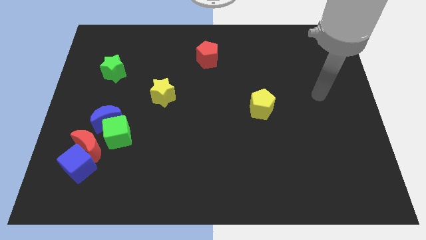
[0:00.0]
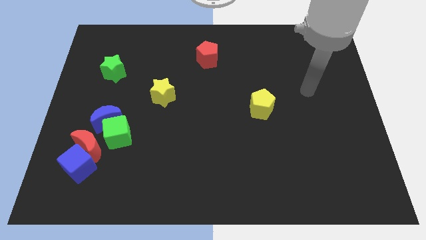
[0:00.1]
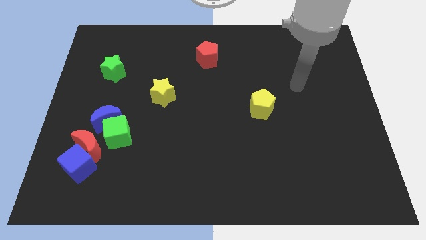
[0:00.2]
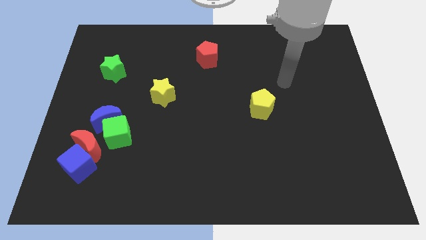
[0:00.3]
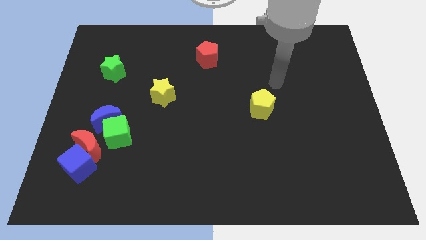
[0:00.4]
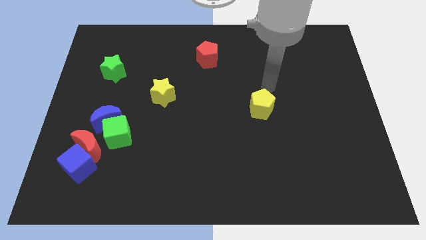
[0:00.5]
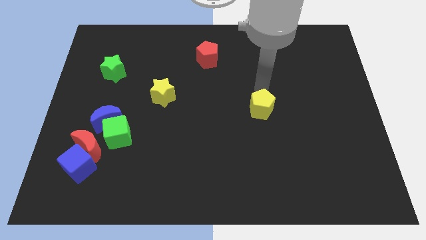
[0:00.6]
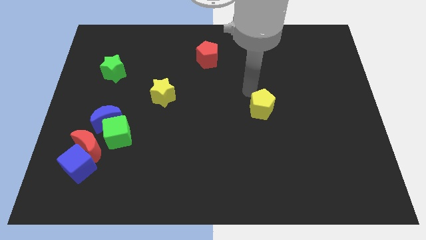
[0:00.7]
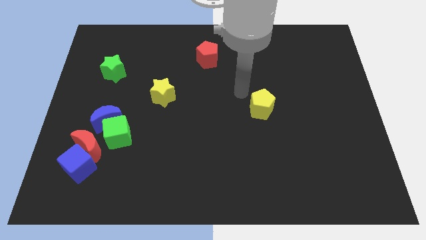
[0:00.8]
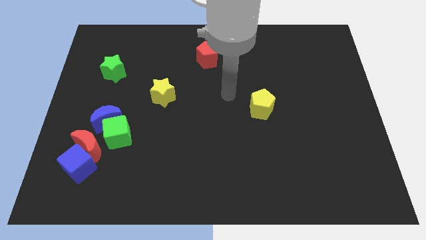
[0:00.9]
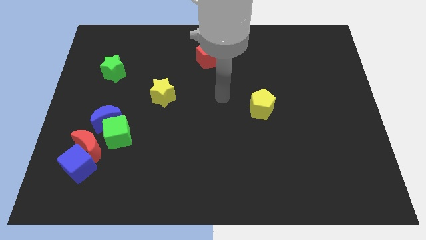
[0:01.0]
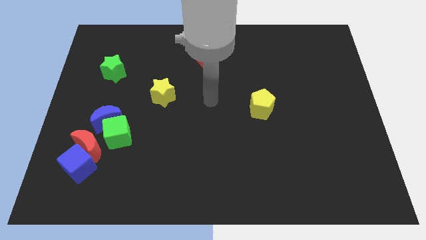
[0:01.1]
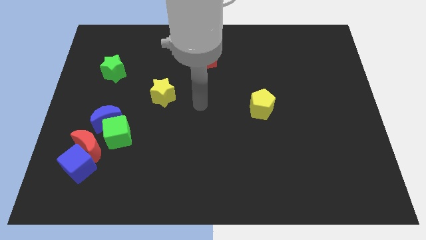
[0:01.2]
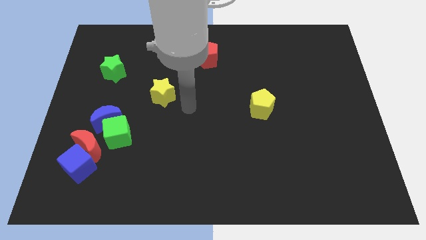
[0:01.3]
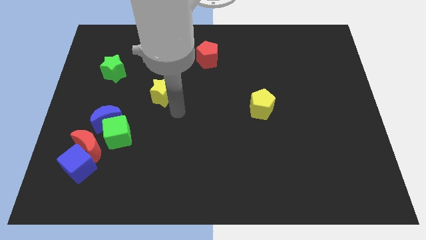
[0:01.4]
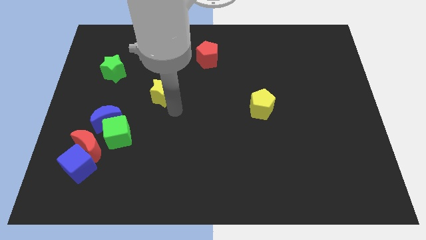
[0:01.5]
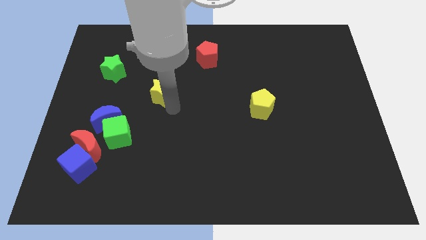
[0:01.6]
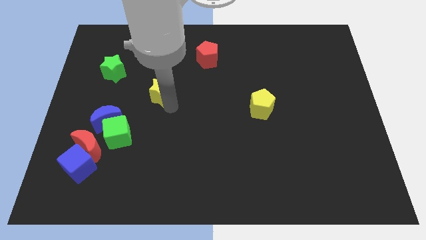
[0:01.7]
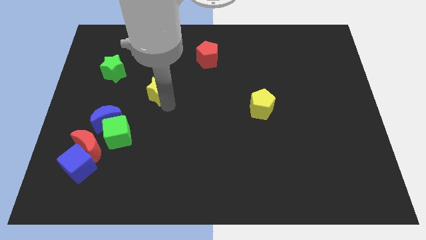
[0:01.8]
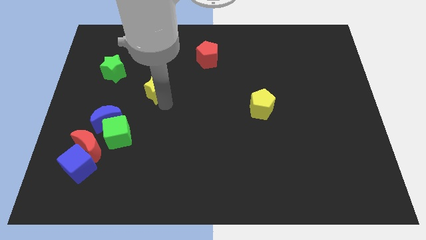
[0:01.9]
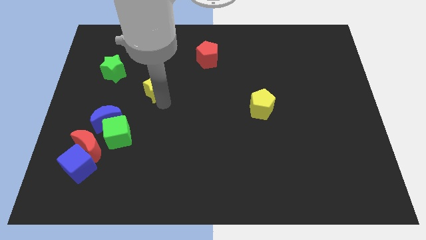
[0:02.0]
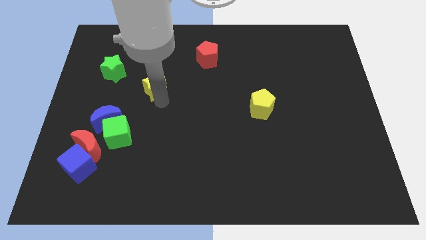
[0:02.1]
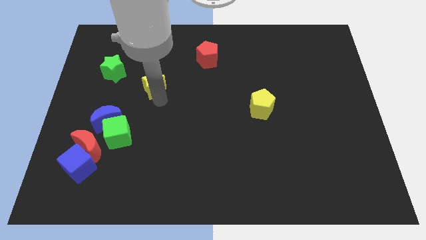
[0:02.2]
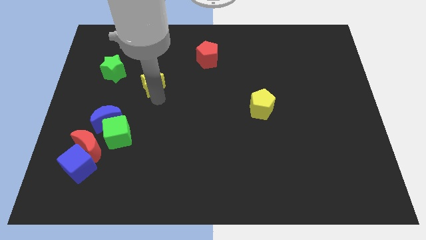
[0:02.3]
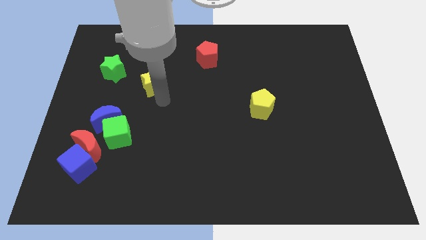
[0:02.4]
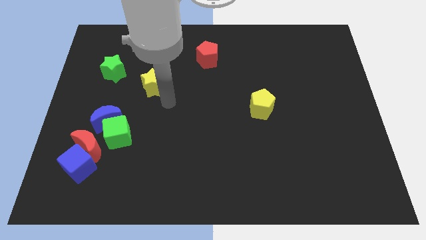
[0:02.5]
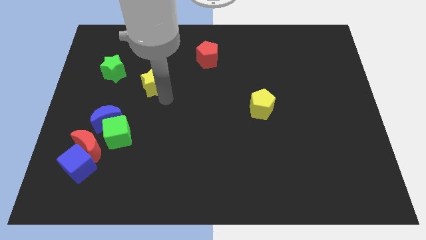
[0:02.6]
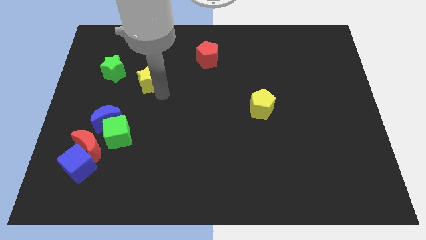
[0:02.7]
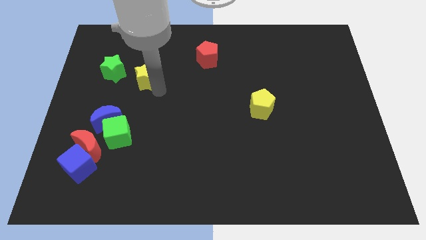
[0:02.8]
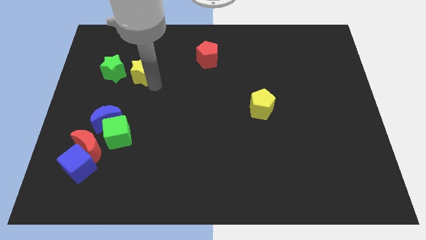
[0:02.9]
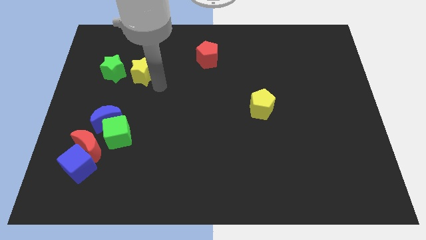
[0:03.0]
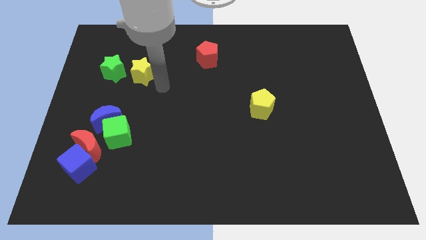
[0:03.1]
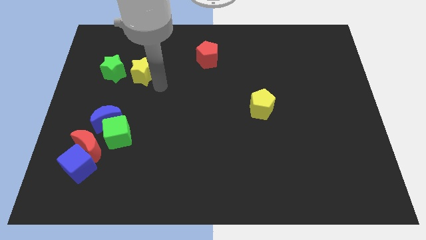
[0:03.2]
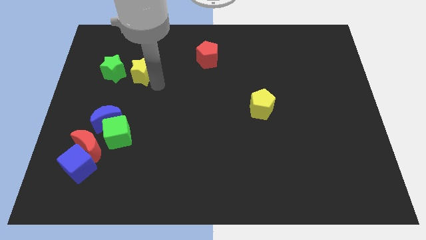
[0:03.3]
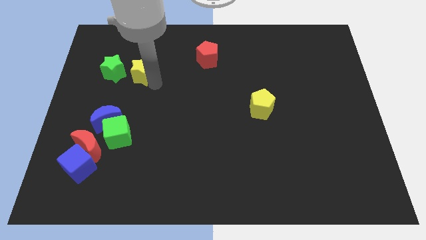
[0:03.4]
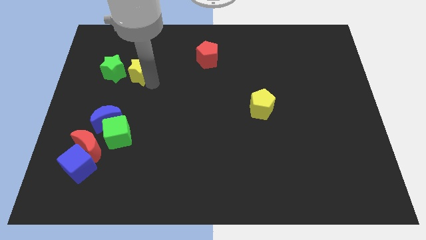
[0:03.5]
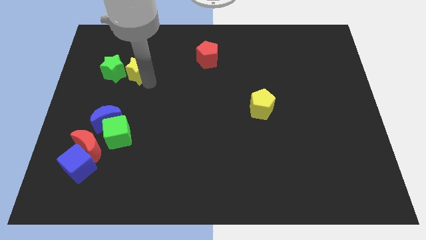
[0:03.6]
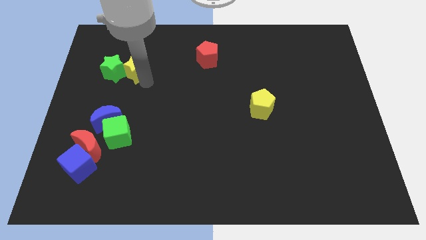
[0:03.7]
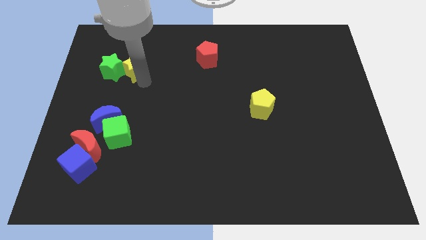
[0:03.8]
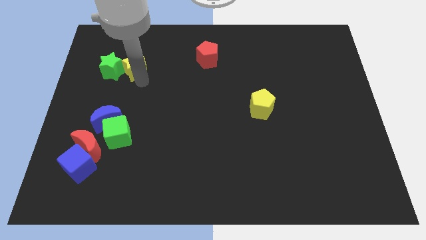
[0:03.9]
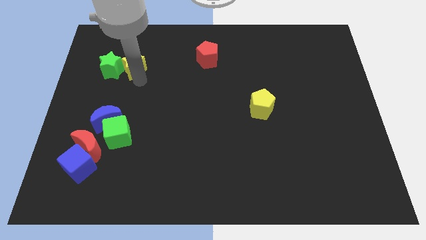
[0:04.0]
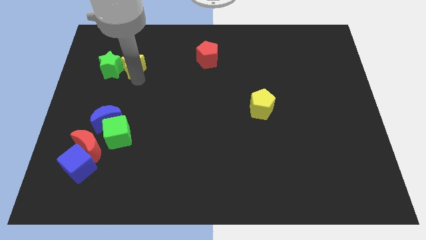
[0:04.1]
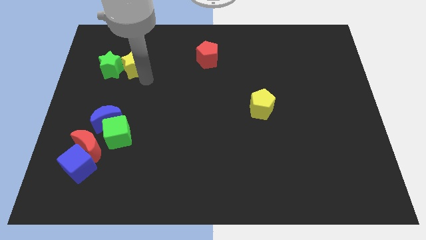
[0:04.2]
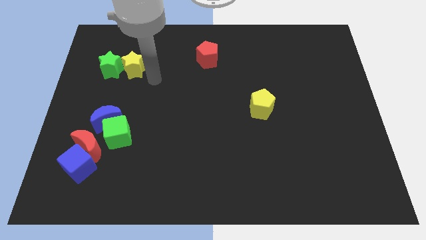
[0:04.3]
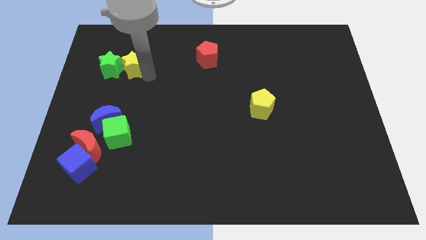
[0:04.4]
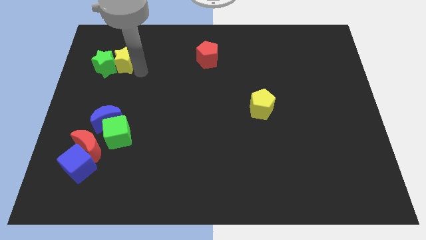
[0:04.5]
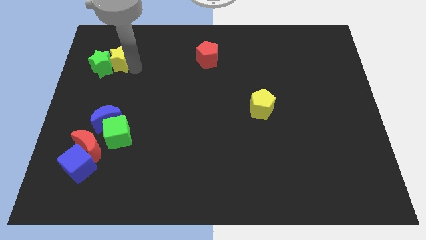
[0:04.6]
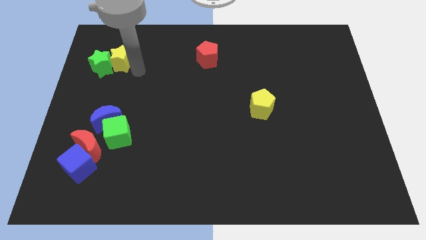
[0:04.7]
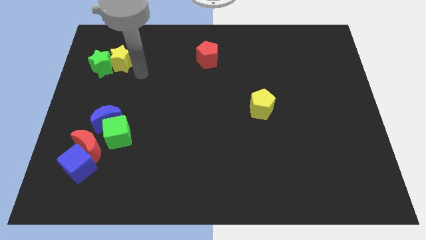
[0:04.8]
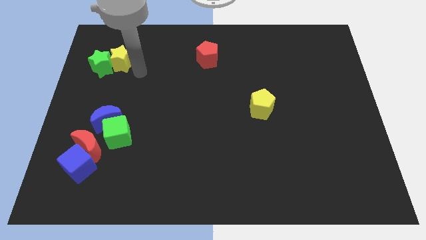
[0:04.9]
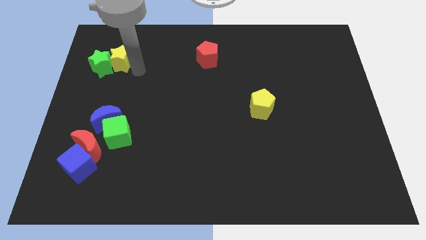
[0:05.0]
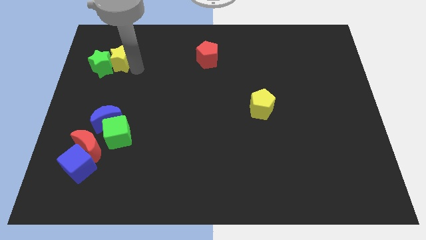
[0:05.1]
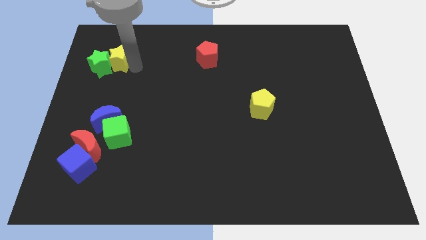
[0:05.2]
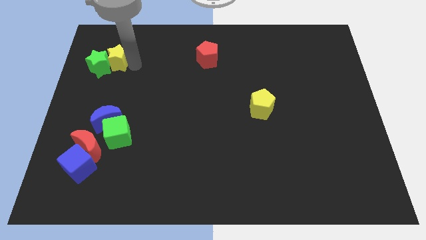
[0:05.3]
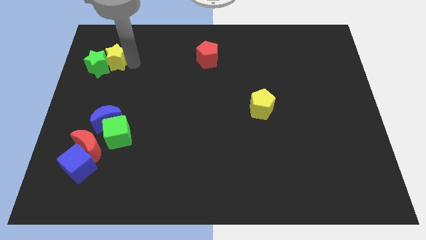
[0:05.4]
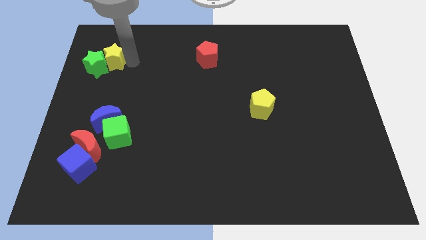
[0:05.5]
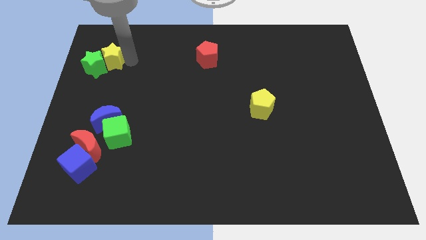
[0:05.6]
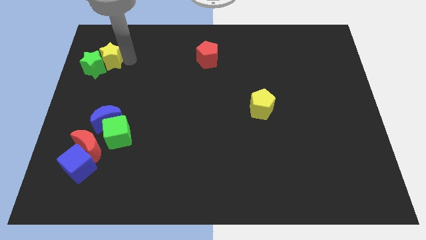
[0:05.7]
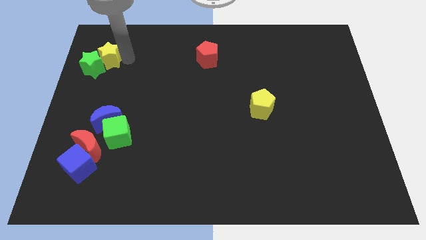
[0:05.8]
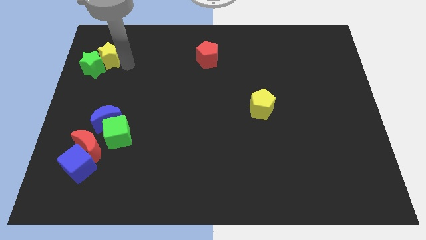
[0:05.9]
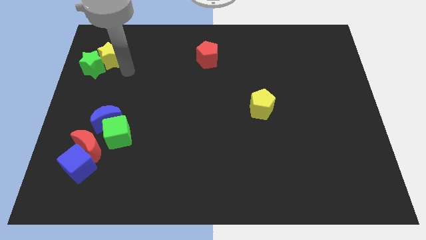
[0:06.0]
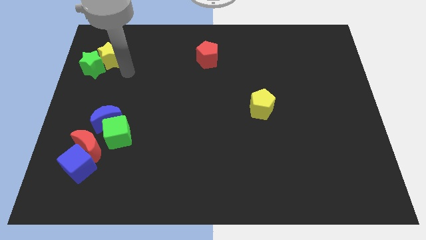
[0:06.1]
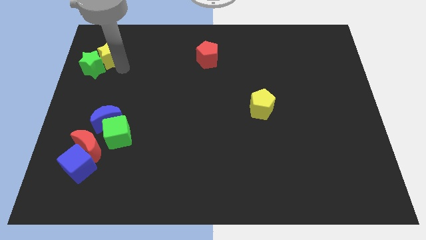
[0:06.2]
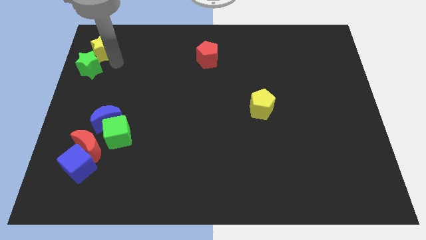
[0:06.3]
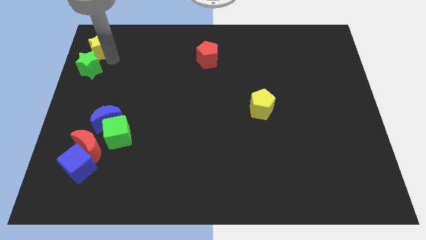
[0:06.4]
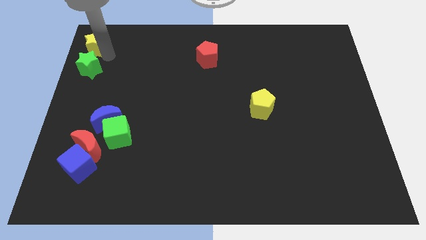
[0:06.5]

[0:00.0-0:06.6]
move the yellow star to the top left of the board
